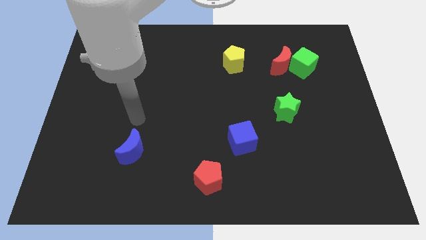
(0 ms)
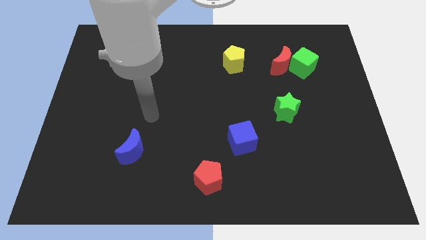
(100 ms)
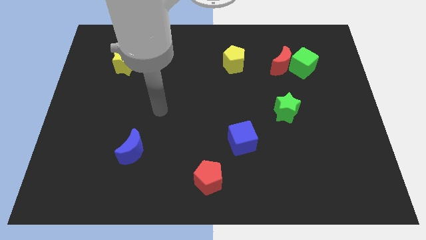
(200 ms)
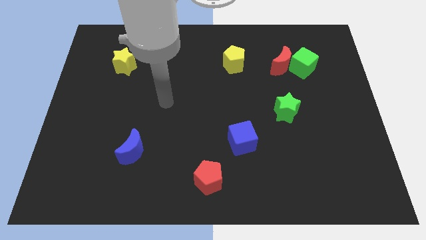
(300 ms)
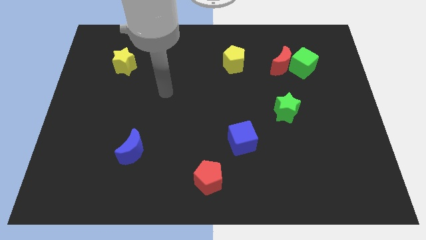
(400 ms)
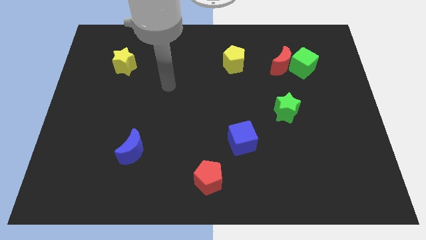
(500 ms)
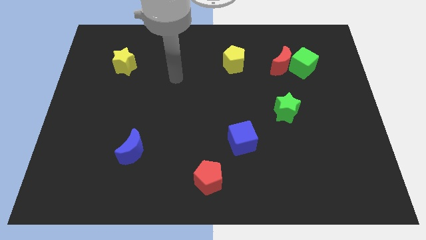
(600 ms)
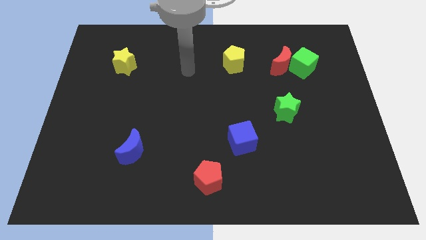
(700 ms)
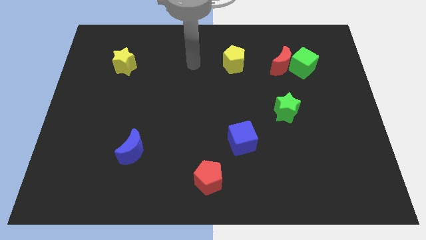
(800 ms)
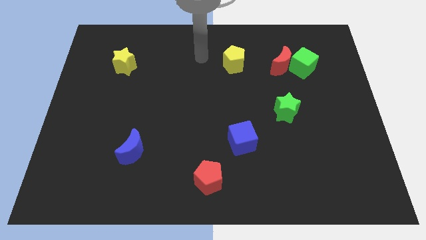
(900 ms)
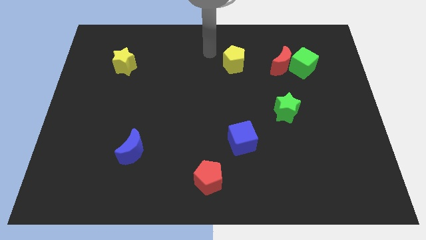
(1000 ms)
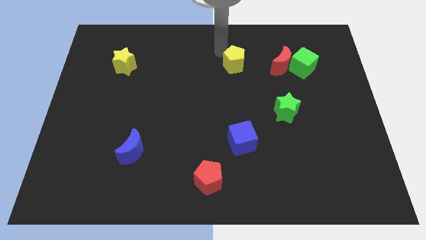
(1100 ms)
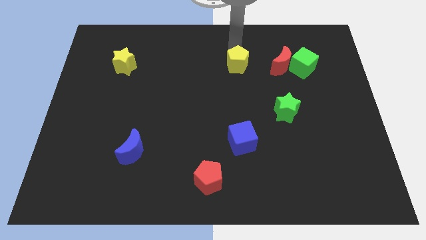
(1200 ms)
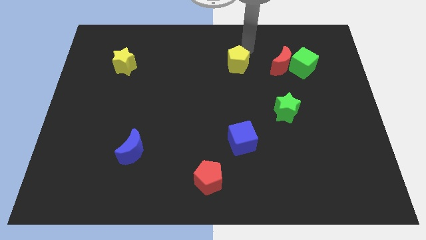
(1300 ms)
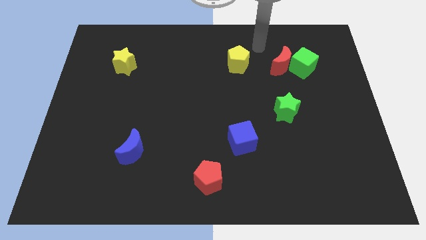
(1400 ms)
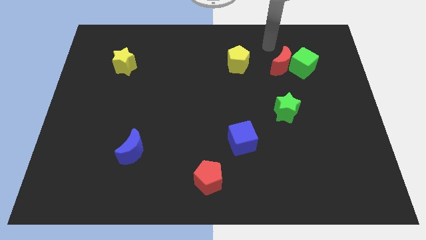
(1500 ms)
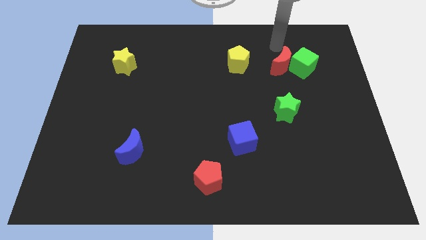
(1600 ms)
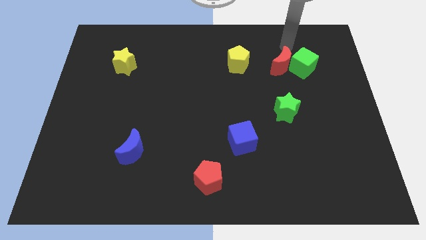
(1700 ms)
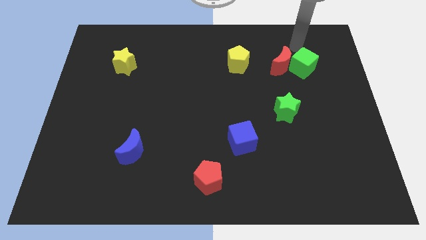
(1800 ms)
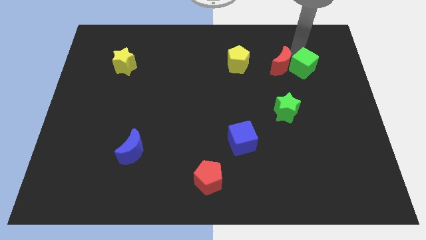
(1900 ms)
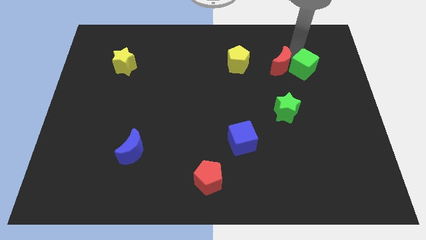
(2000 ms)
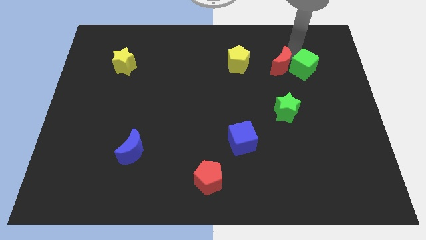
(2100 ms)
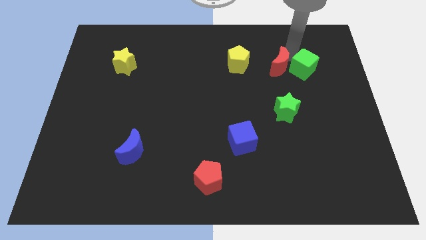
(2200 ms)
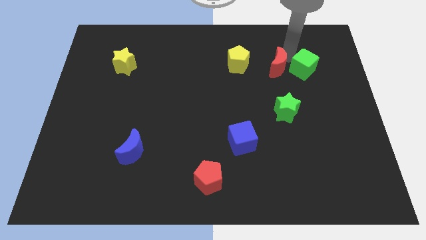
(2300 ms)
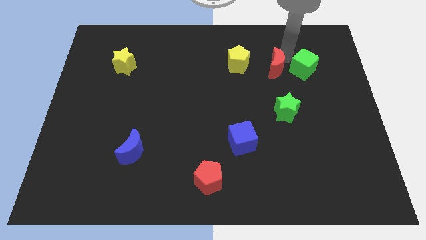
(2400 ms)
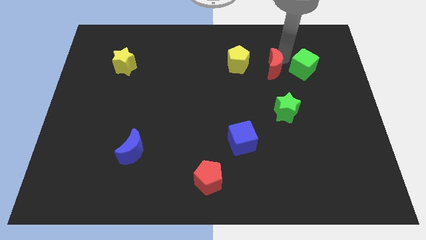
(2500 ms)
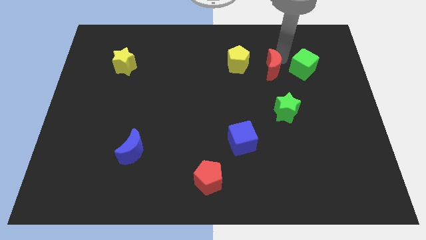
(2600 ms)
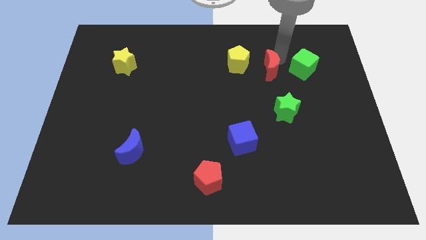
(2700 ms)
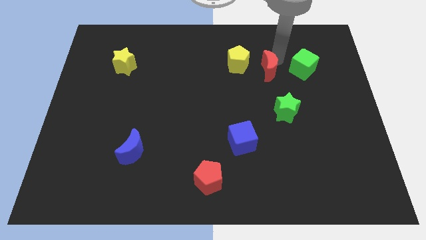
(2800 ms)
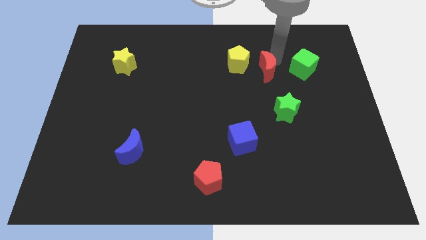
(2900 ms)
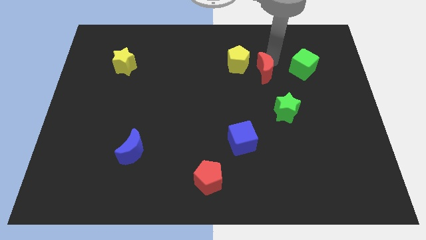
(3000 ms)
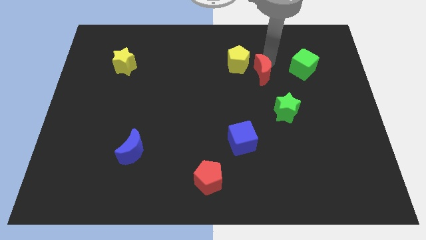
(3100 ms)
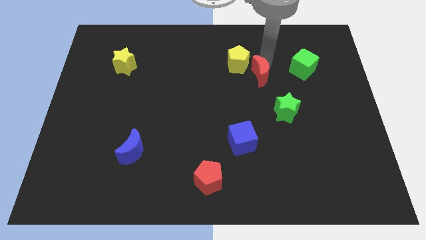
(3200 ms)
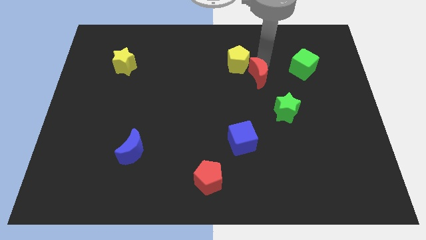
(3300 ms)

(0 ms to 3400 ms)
slightly slide the red moon down and then to the left

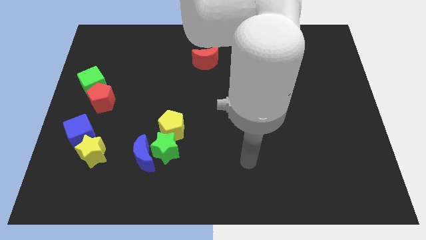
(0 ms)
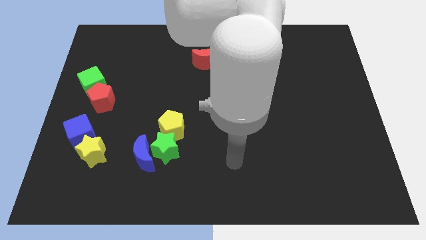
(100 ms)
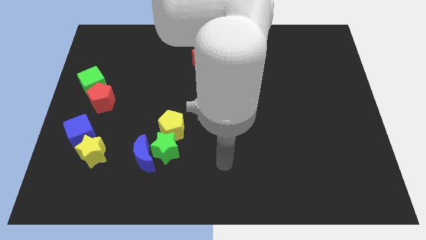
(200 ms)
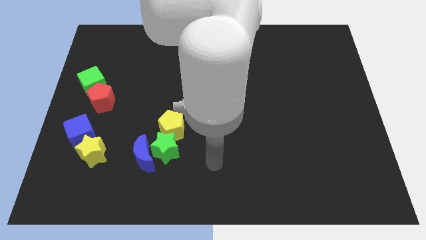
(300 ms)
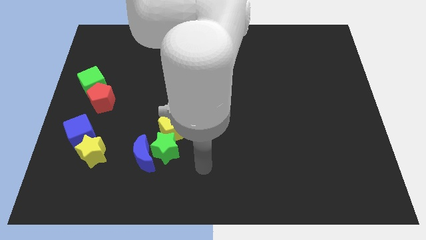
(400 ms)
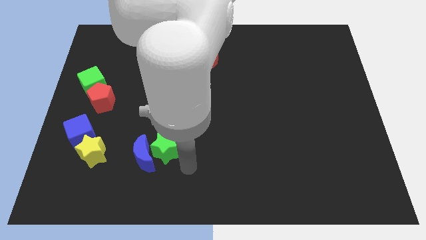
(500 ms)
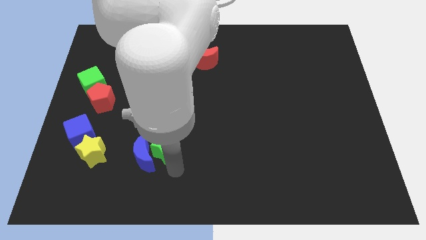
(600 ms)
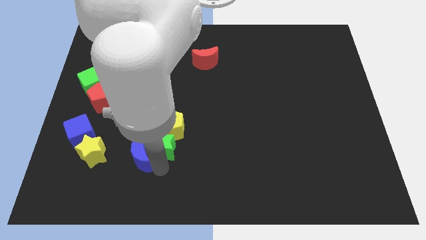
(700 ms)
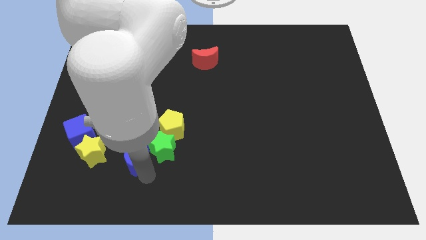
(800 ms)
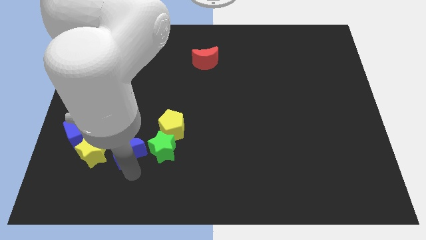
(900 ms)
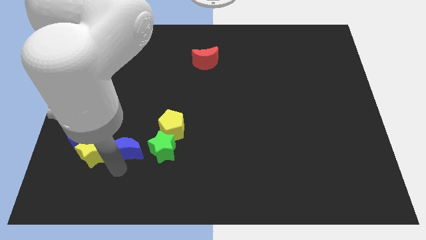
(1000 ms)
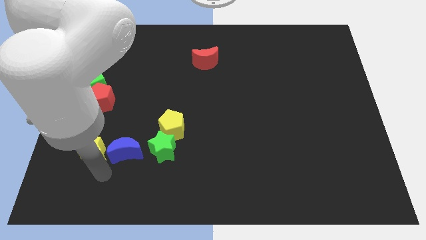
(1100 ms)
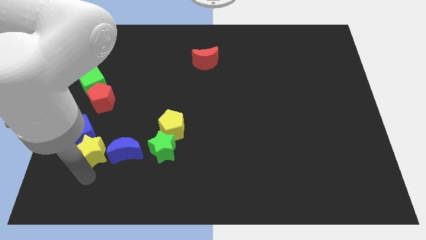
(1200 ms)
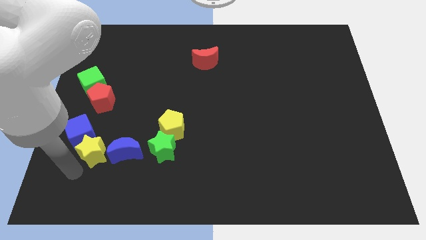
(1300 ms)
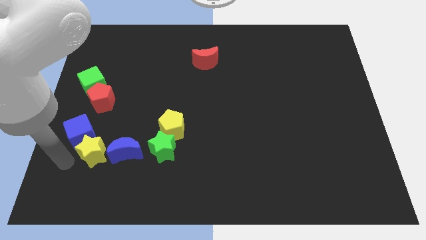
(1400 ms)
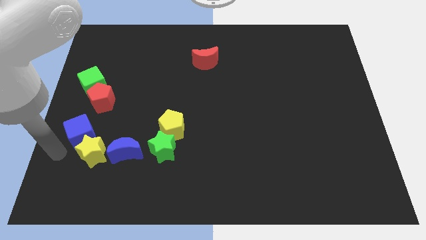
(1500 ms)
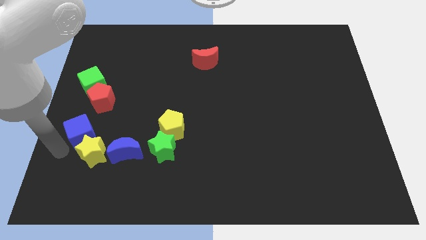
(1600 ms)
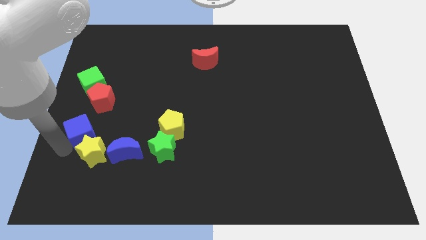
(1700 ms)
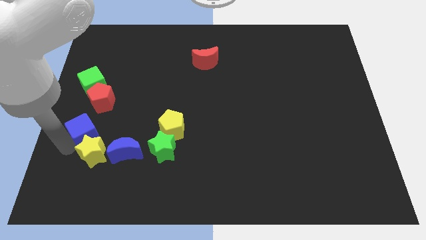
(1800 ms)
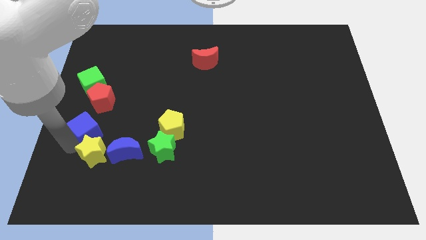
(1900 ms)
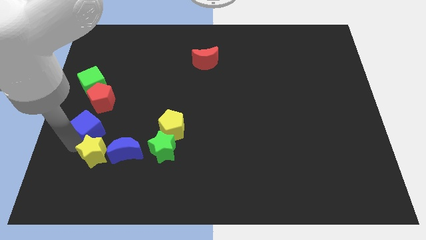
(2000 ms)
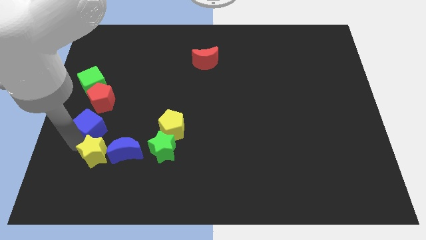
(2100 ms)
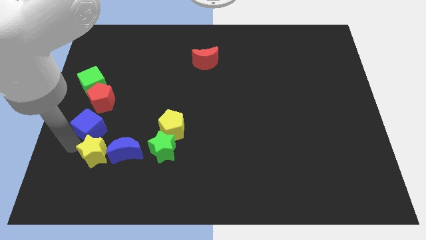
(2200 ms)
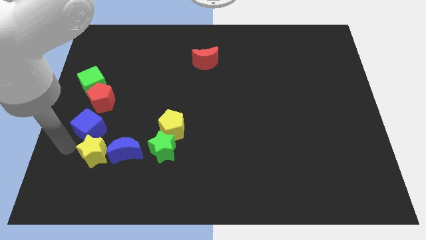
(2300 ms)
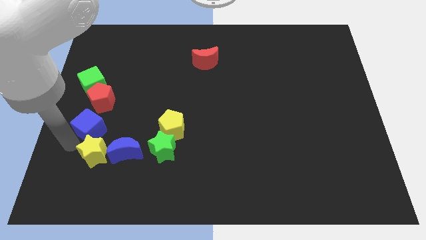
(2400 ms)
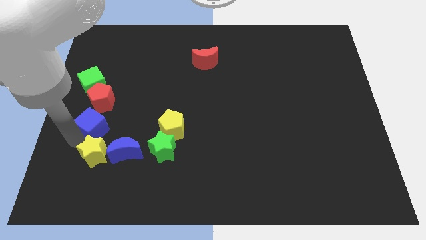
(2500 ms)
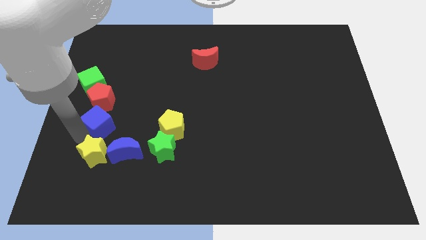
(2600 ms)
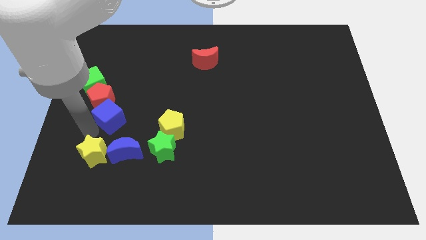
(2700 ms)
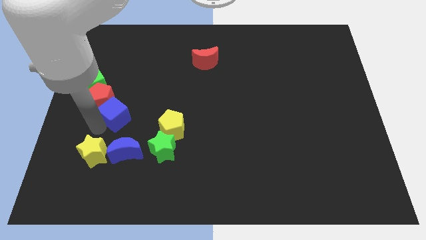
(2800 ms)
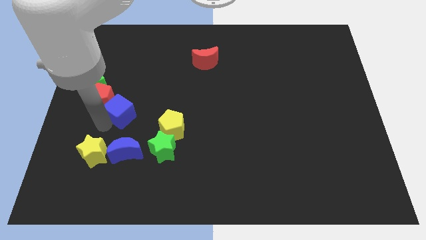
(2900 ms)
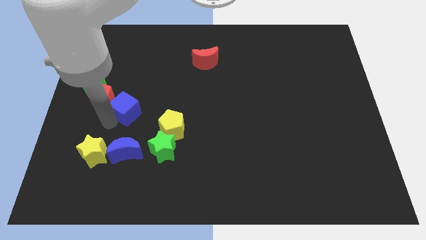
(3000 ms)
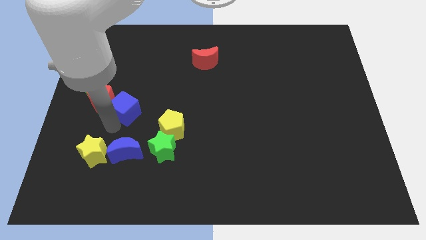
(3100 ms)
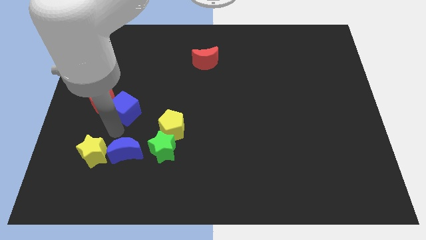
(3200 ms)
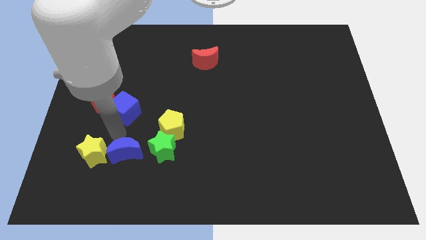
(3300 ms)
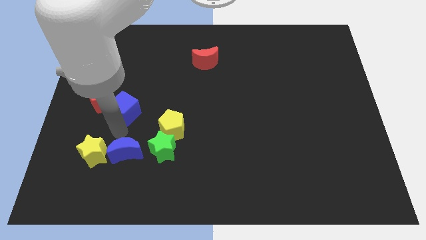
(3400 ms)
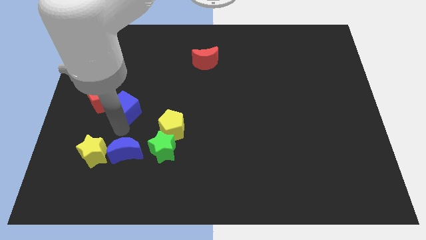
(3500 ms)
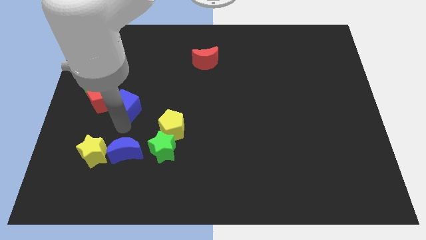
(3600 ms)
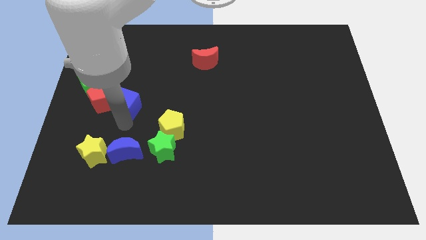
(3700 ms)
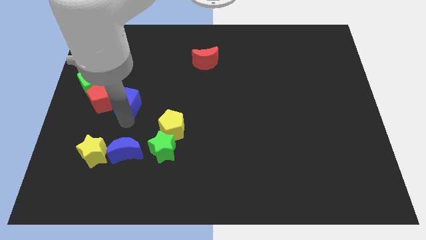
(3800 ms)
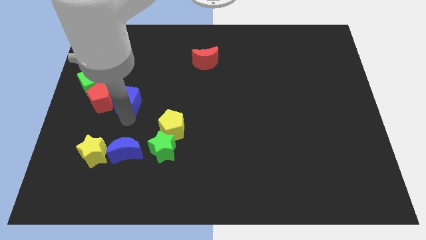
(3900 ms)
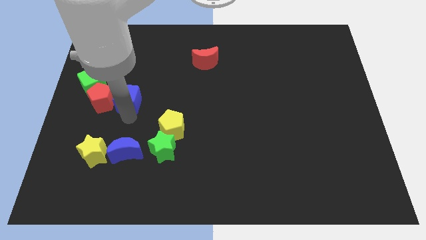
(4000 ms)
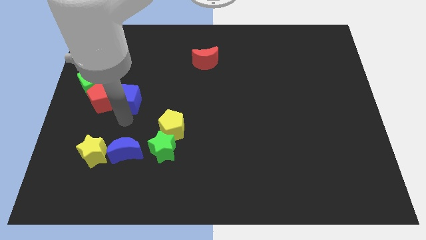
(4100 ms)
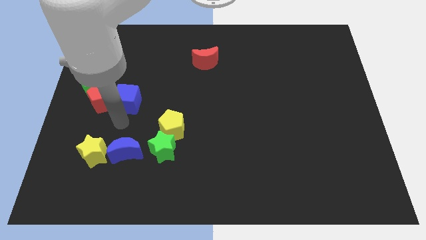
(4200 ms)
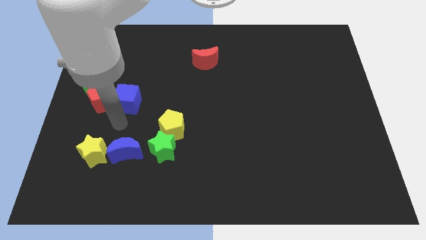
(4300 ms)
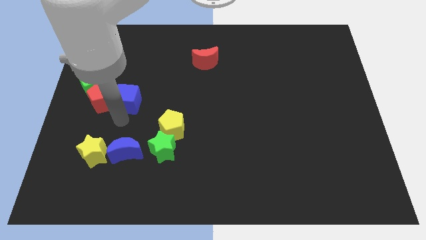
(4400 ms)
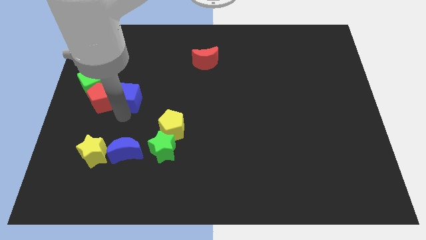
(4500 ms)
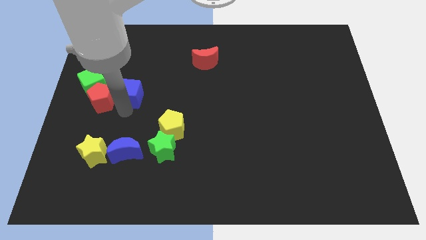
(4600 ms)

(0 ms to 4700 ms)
move the blue cube slightly upwards

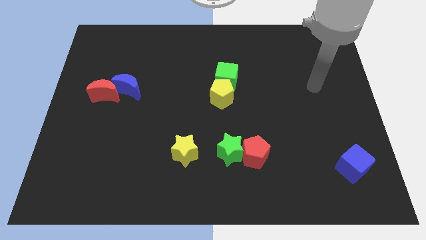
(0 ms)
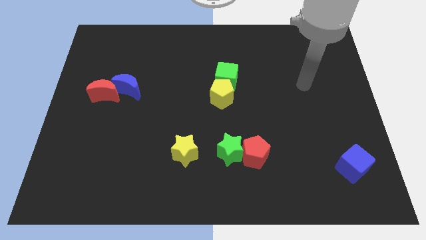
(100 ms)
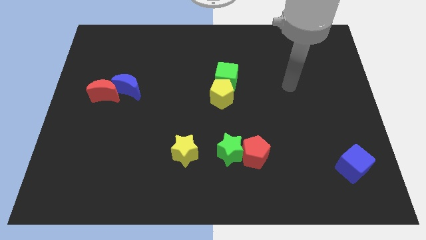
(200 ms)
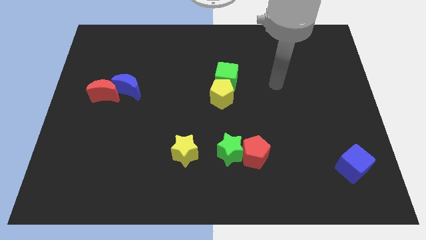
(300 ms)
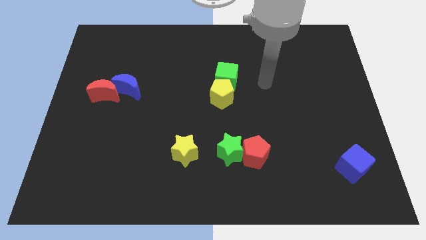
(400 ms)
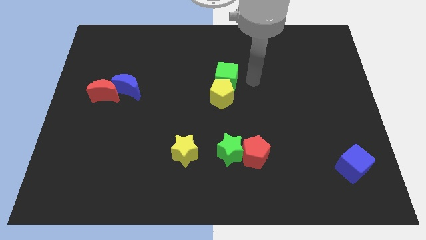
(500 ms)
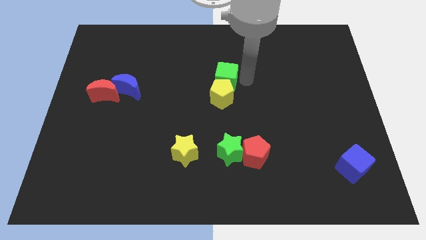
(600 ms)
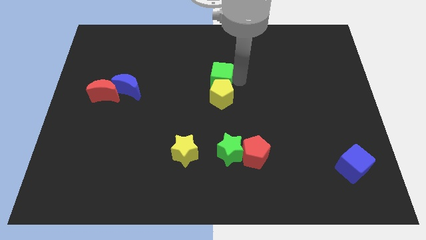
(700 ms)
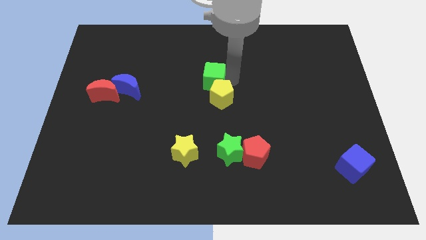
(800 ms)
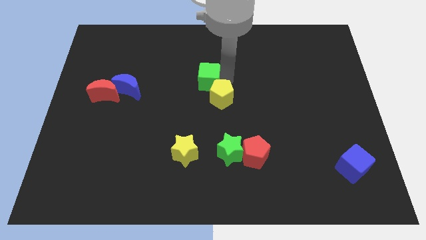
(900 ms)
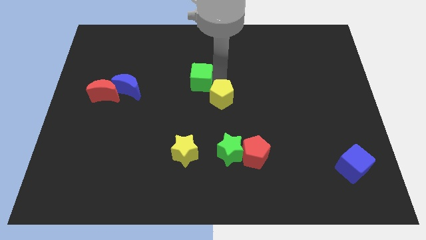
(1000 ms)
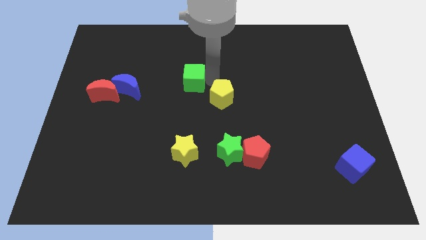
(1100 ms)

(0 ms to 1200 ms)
push the green cube left somewhat
